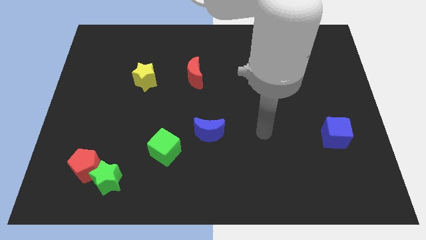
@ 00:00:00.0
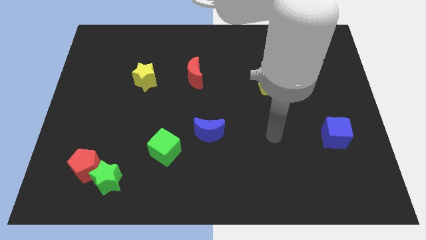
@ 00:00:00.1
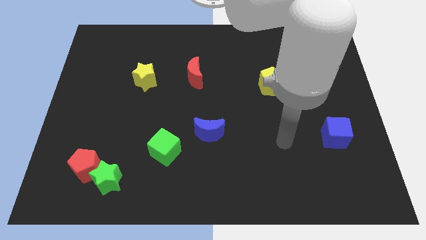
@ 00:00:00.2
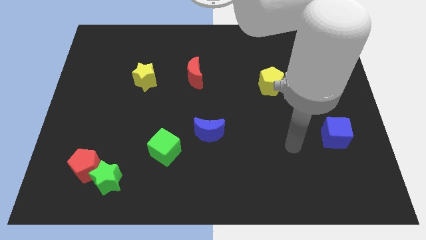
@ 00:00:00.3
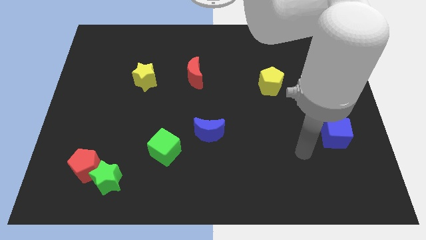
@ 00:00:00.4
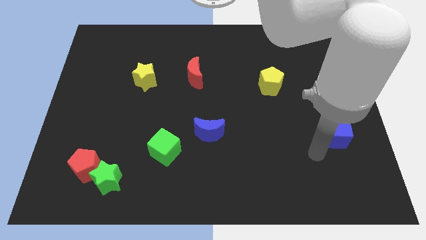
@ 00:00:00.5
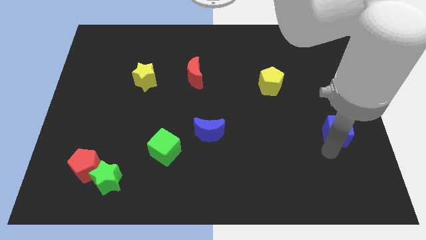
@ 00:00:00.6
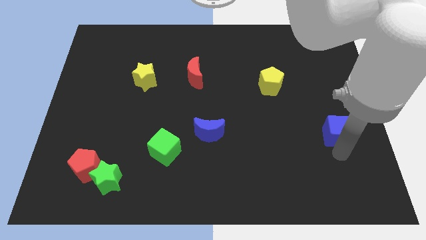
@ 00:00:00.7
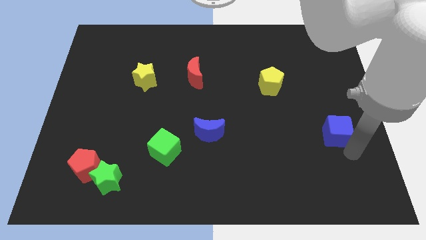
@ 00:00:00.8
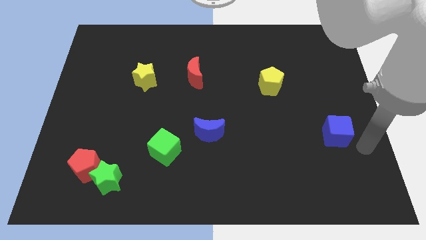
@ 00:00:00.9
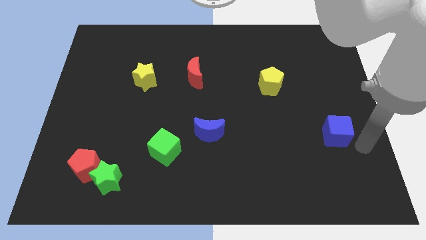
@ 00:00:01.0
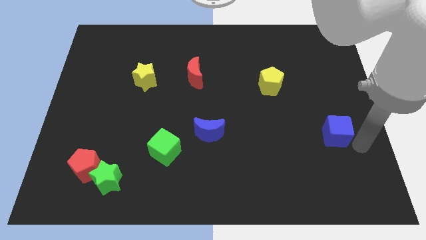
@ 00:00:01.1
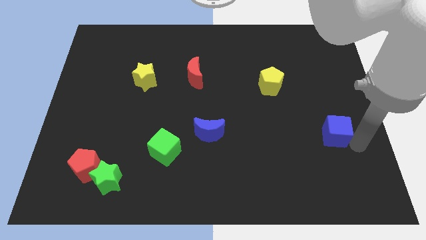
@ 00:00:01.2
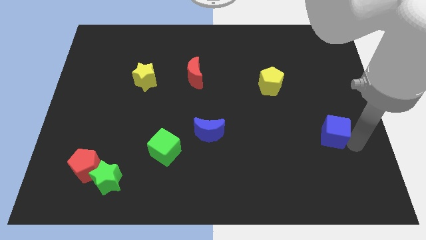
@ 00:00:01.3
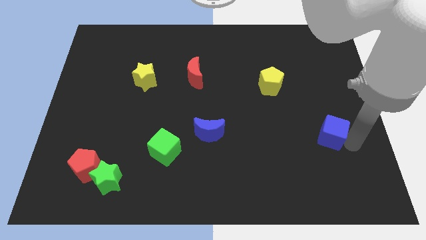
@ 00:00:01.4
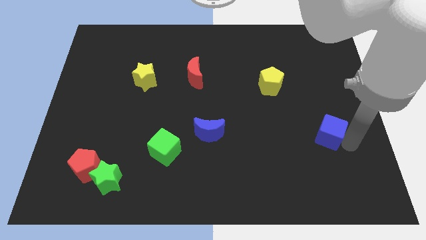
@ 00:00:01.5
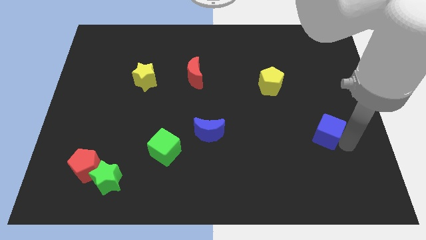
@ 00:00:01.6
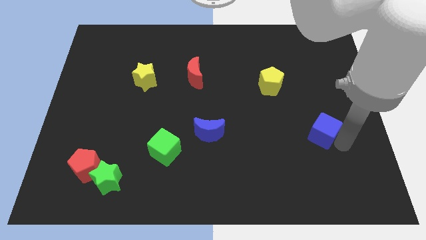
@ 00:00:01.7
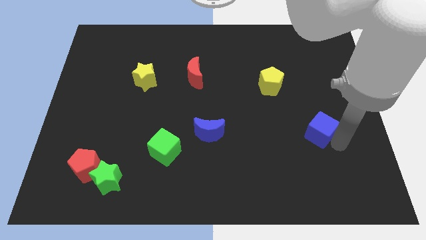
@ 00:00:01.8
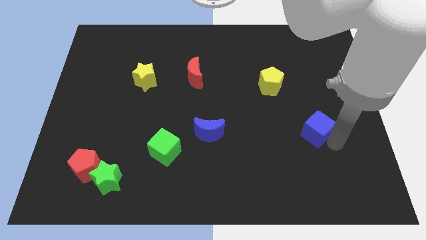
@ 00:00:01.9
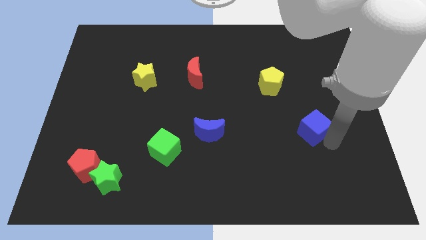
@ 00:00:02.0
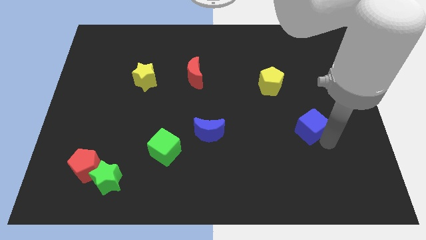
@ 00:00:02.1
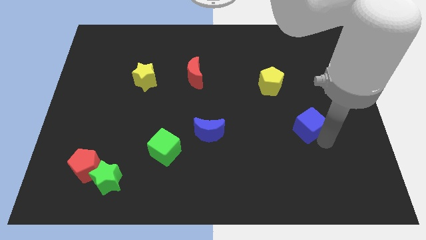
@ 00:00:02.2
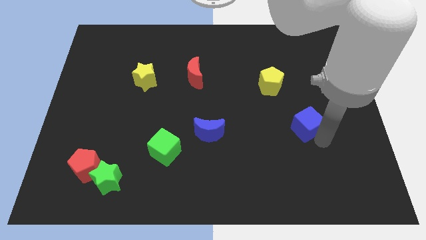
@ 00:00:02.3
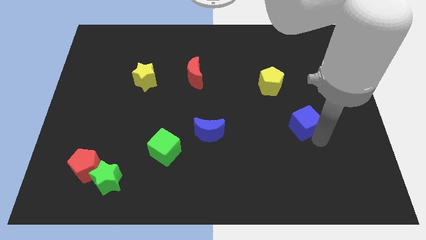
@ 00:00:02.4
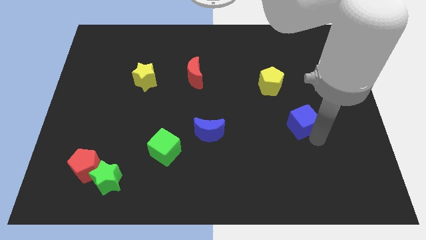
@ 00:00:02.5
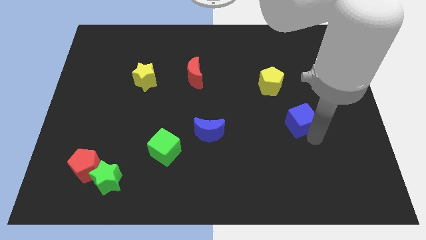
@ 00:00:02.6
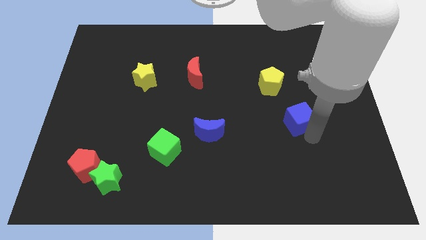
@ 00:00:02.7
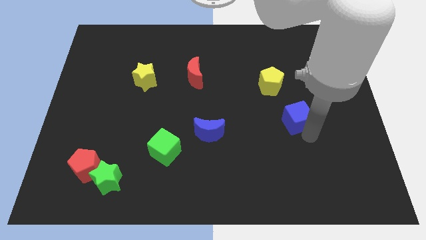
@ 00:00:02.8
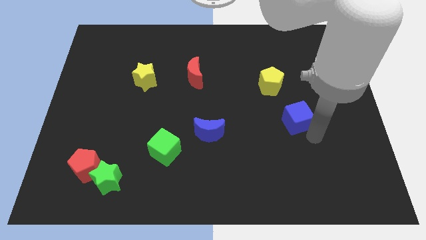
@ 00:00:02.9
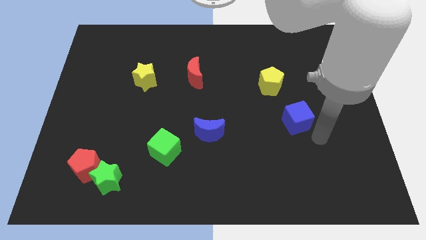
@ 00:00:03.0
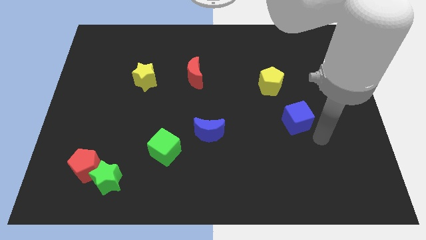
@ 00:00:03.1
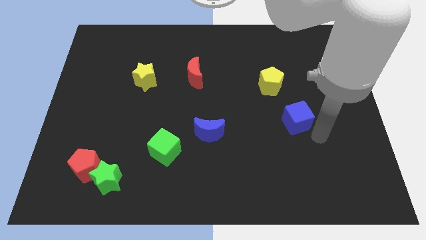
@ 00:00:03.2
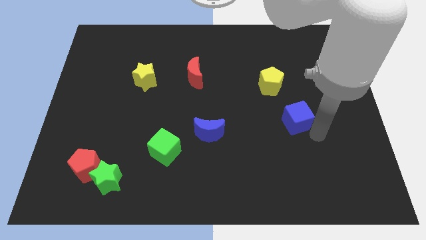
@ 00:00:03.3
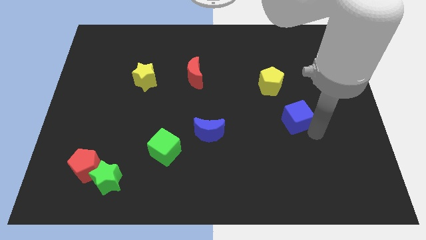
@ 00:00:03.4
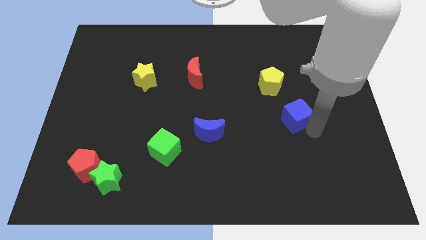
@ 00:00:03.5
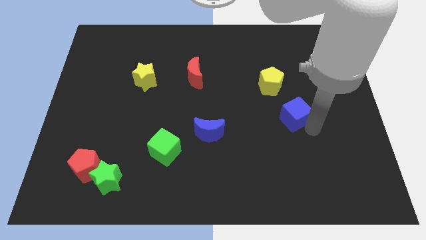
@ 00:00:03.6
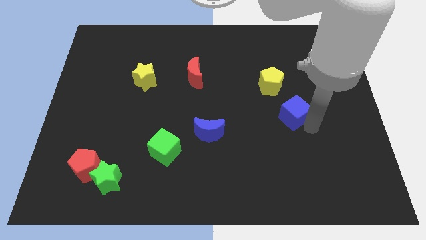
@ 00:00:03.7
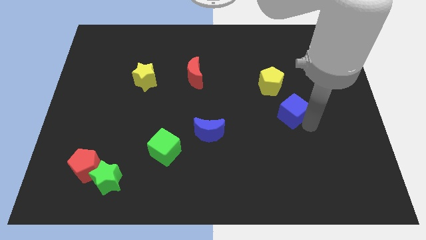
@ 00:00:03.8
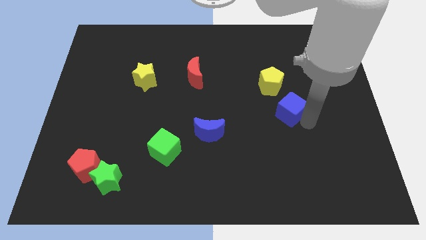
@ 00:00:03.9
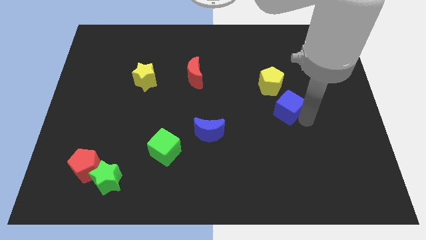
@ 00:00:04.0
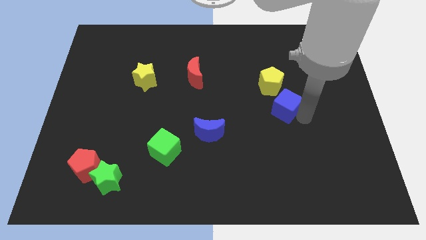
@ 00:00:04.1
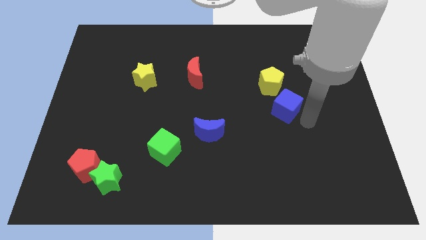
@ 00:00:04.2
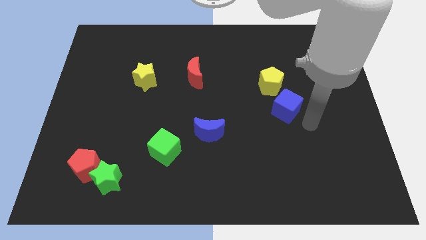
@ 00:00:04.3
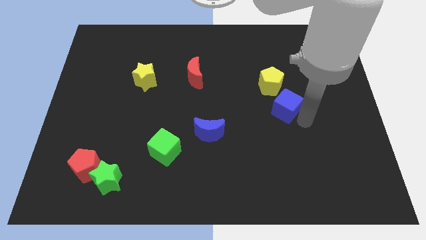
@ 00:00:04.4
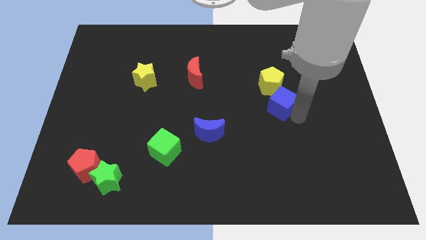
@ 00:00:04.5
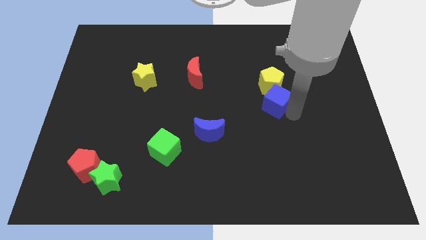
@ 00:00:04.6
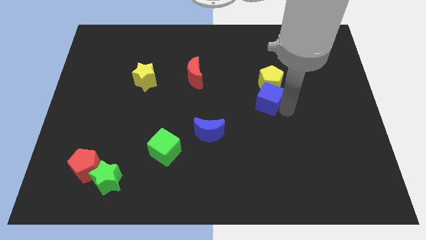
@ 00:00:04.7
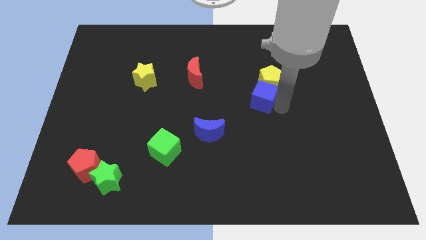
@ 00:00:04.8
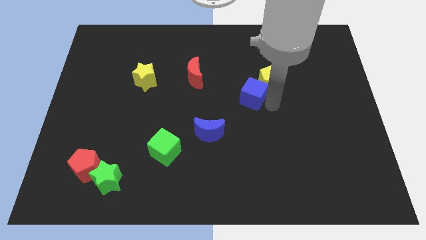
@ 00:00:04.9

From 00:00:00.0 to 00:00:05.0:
slide the blue cube upwards and to the left

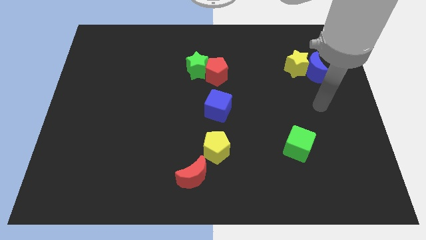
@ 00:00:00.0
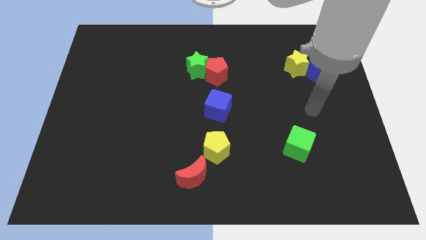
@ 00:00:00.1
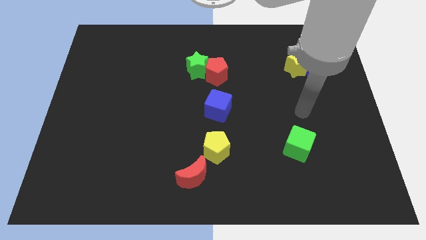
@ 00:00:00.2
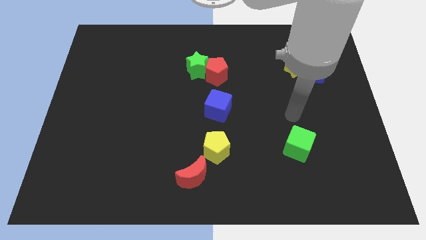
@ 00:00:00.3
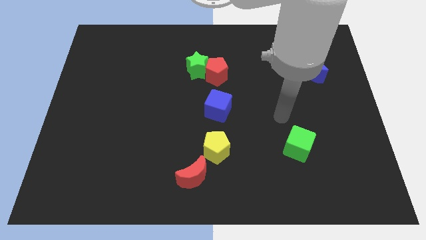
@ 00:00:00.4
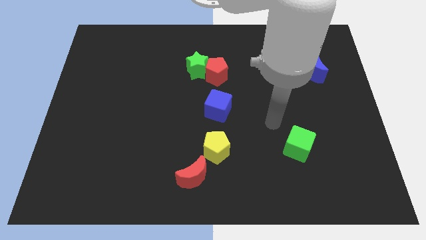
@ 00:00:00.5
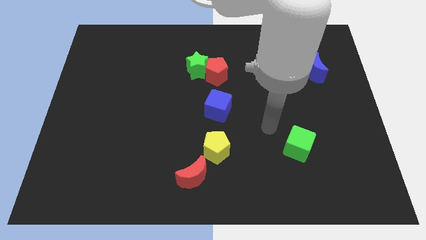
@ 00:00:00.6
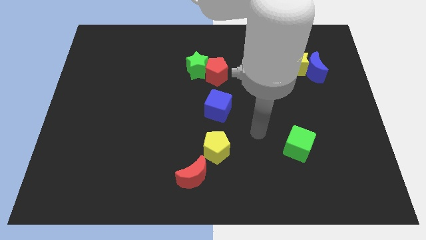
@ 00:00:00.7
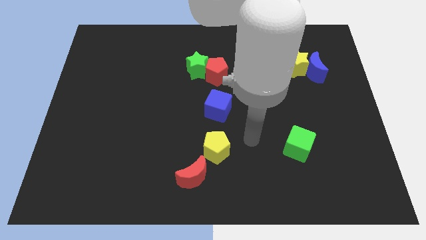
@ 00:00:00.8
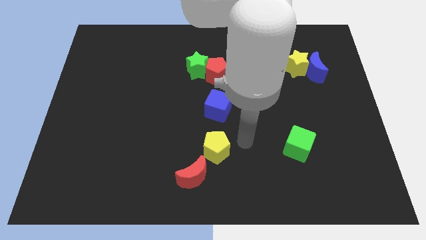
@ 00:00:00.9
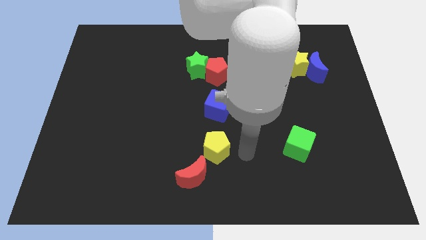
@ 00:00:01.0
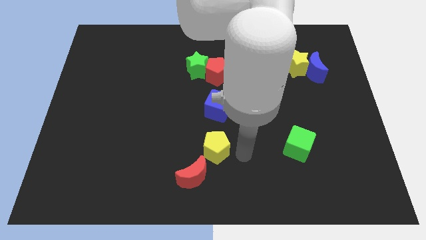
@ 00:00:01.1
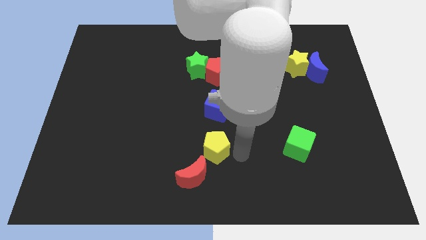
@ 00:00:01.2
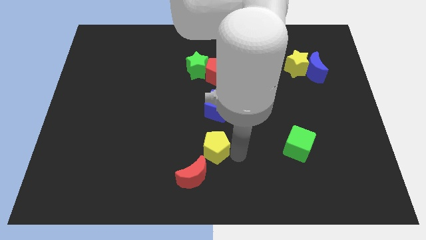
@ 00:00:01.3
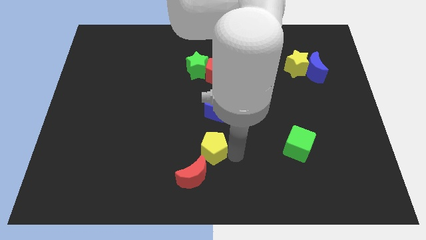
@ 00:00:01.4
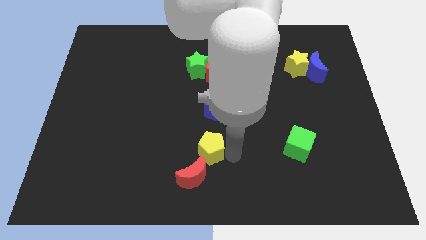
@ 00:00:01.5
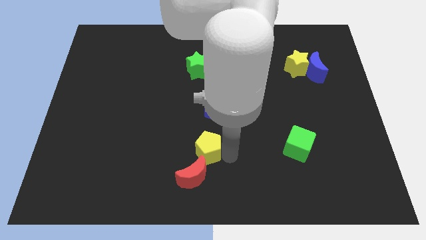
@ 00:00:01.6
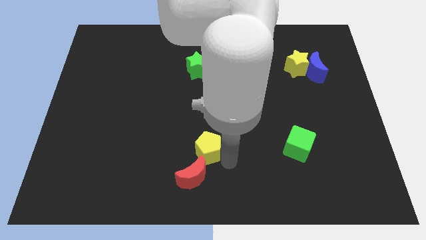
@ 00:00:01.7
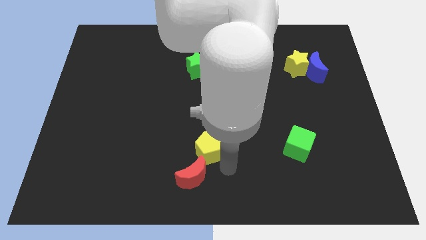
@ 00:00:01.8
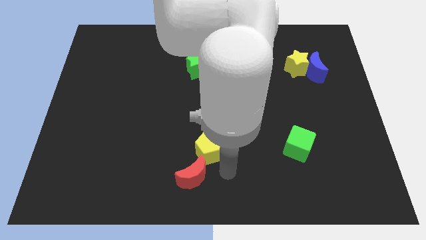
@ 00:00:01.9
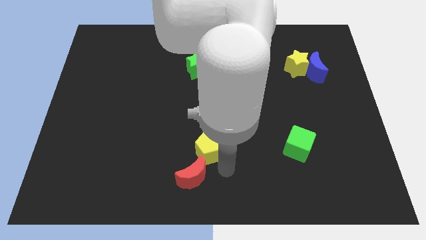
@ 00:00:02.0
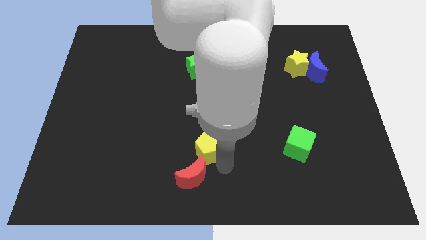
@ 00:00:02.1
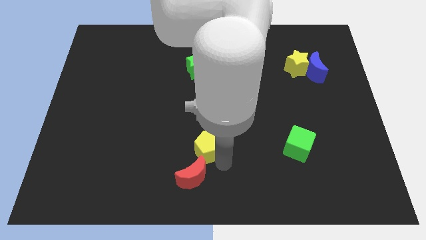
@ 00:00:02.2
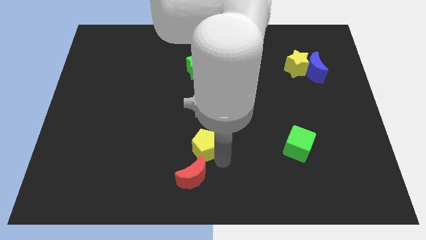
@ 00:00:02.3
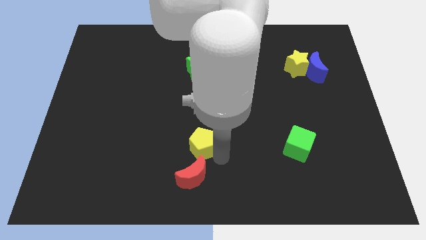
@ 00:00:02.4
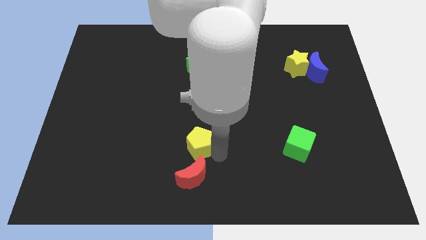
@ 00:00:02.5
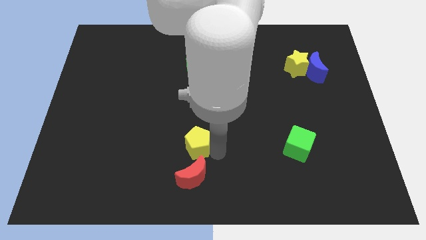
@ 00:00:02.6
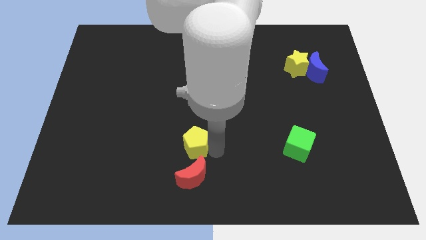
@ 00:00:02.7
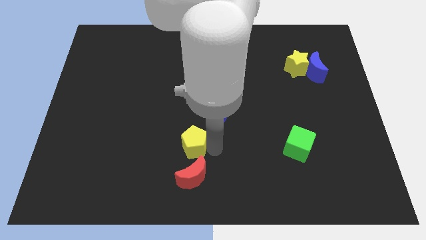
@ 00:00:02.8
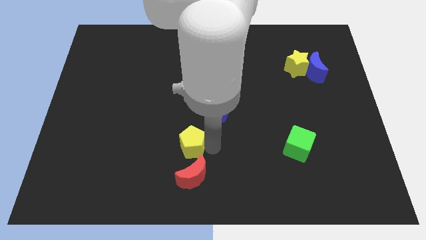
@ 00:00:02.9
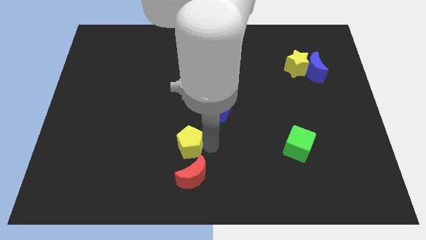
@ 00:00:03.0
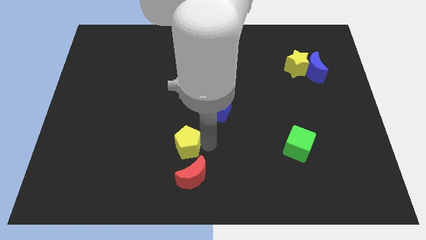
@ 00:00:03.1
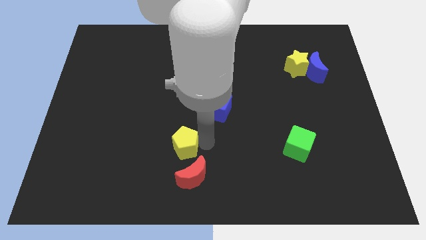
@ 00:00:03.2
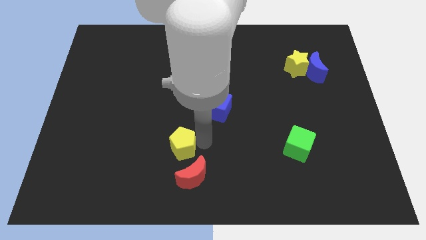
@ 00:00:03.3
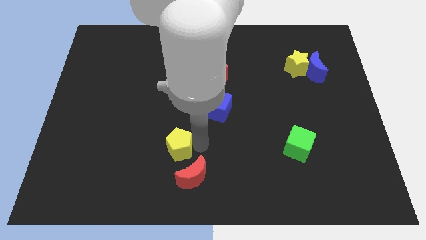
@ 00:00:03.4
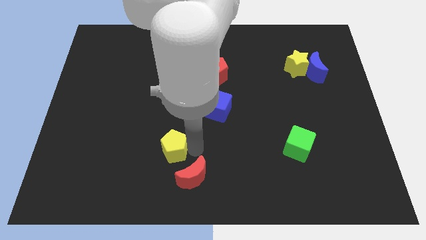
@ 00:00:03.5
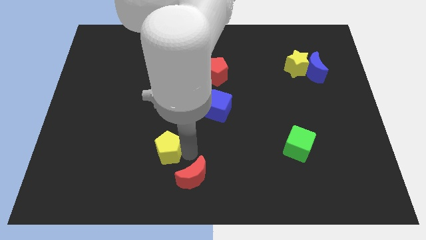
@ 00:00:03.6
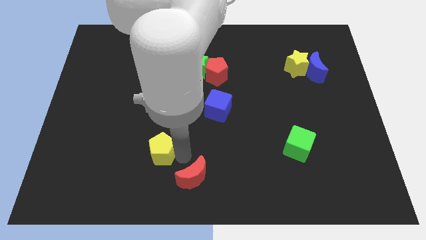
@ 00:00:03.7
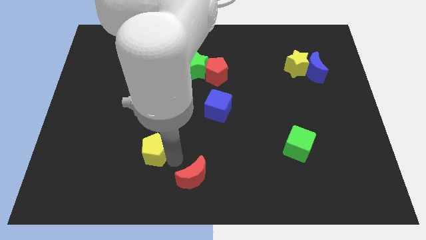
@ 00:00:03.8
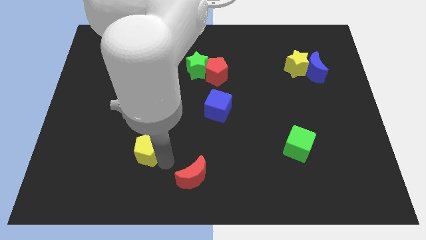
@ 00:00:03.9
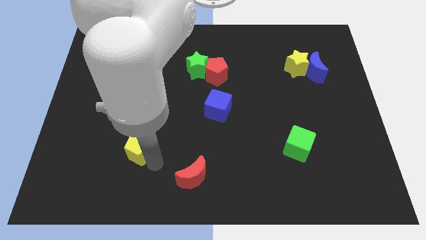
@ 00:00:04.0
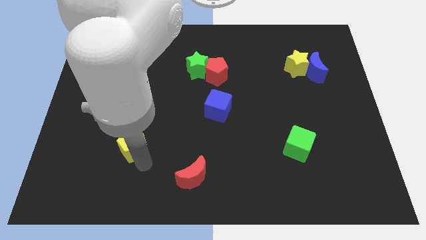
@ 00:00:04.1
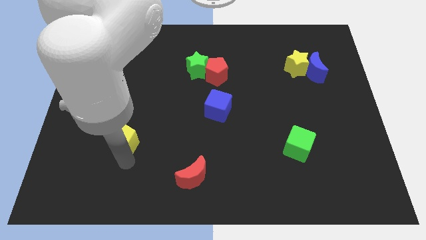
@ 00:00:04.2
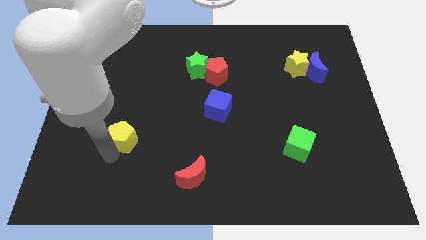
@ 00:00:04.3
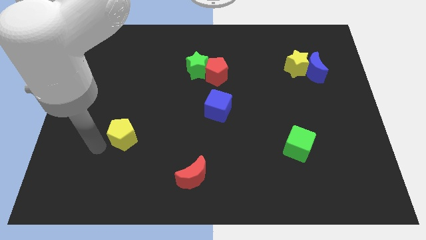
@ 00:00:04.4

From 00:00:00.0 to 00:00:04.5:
slightly slide the yellow pentagon upwards and to the left diagonally
